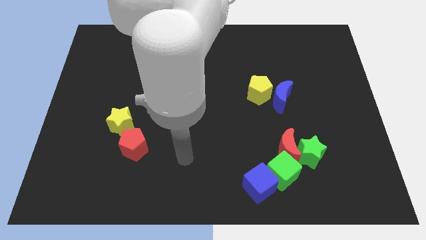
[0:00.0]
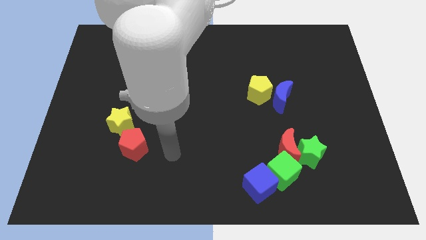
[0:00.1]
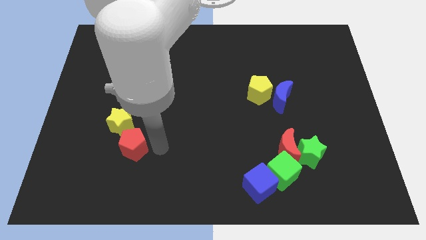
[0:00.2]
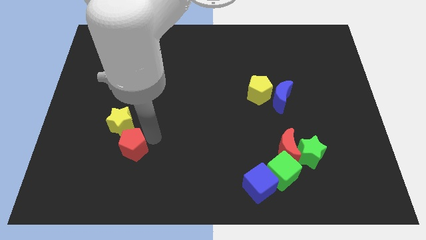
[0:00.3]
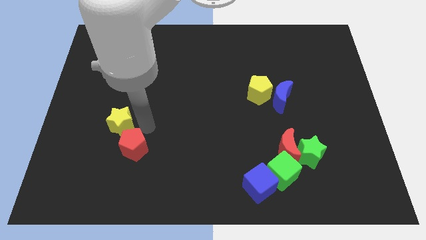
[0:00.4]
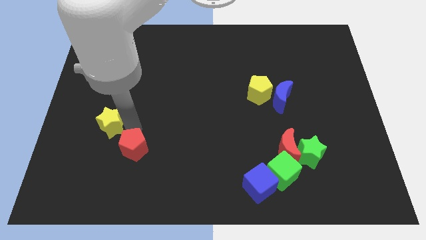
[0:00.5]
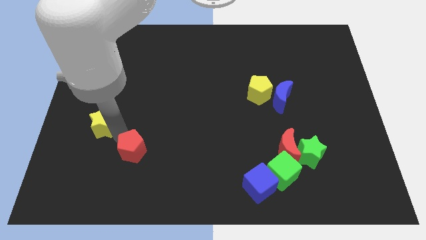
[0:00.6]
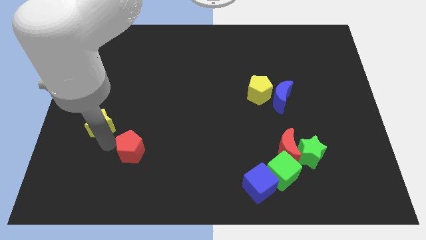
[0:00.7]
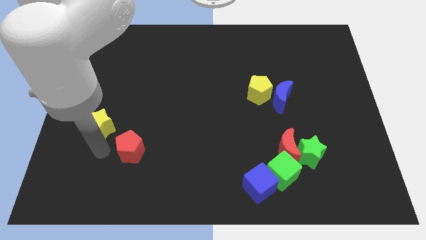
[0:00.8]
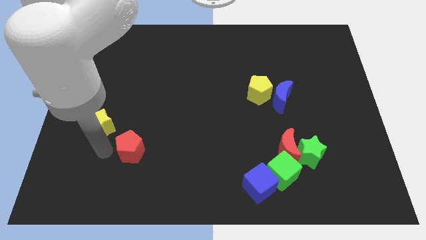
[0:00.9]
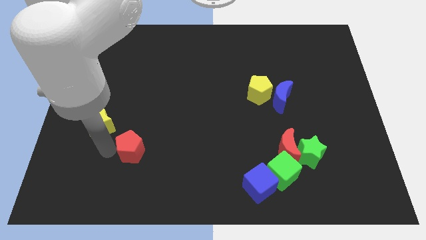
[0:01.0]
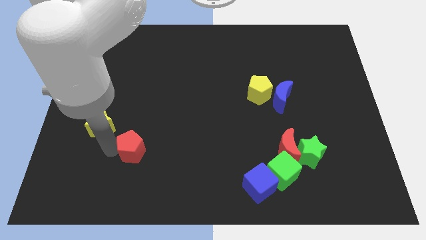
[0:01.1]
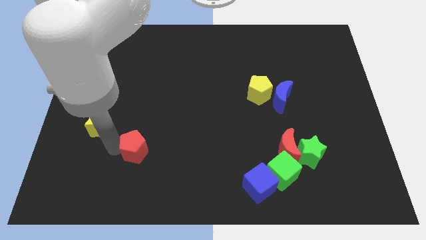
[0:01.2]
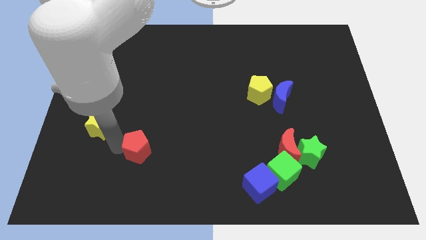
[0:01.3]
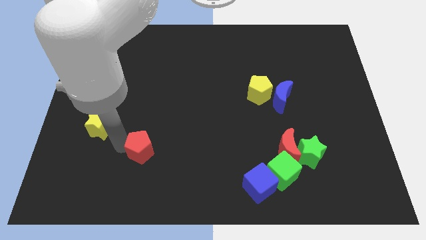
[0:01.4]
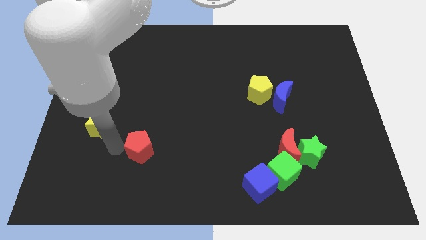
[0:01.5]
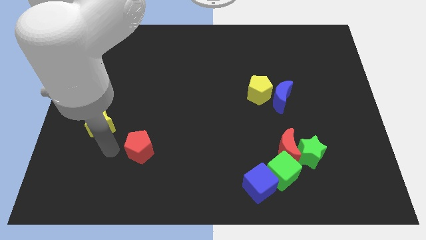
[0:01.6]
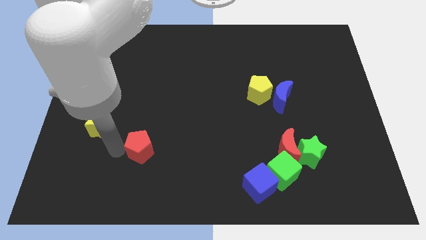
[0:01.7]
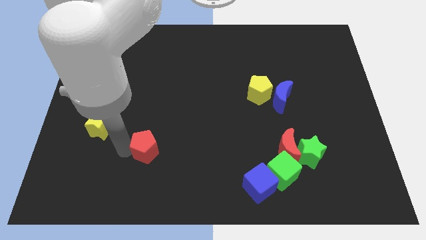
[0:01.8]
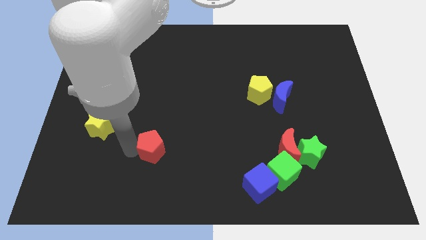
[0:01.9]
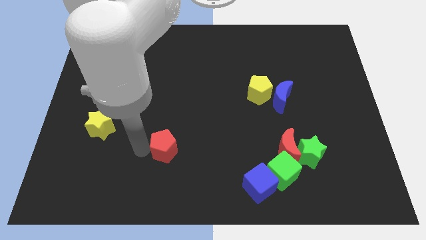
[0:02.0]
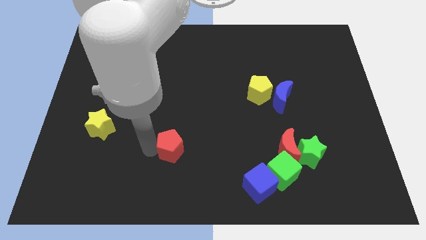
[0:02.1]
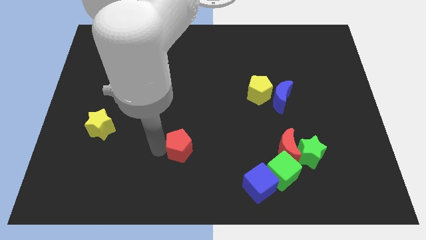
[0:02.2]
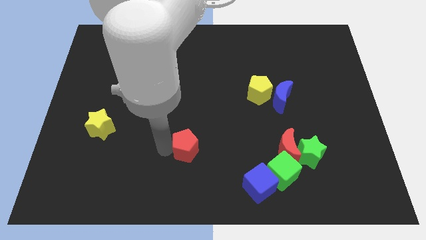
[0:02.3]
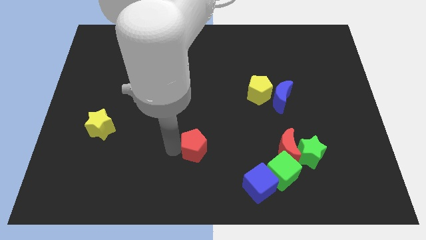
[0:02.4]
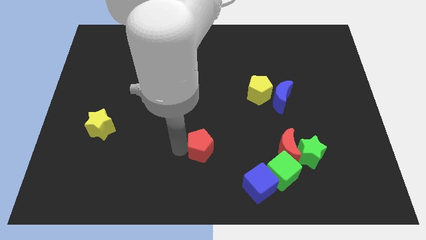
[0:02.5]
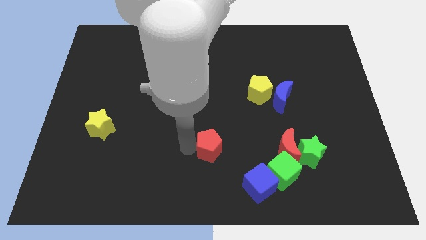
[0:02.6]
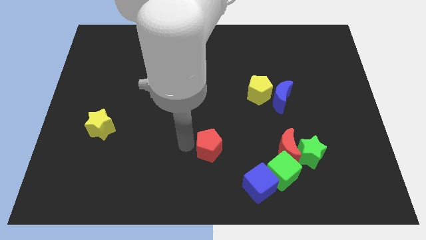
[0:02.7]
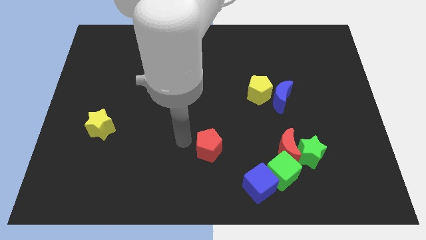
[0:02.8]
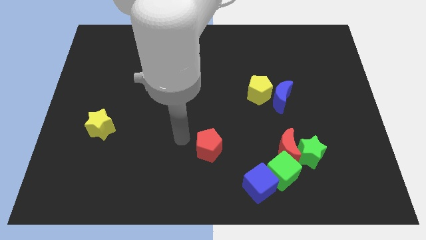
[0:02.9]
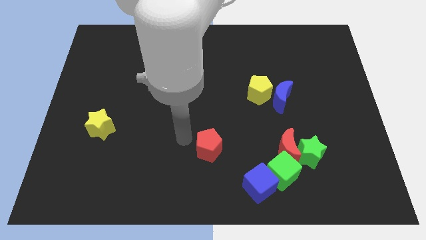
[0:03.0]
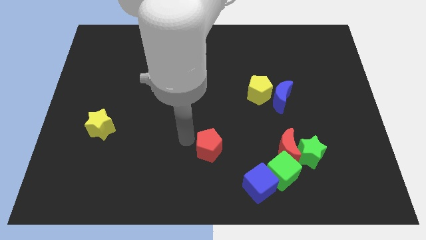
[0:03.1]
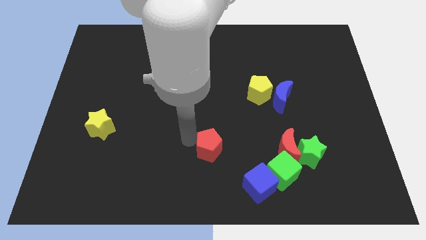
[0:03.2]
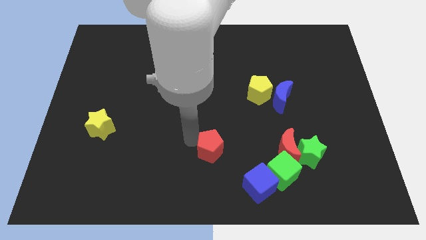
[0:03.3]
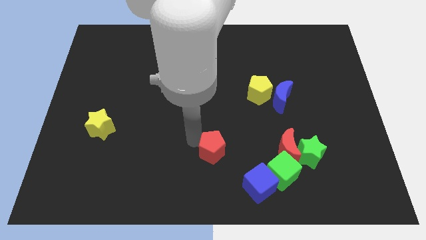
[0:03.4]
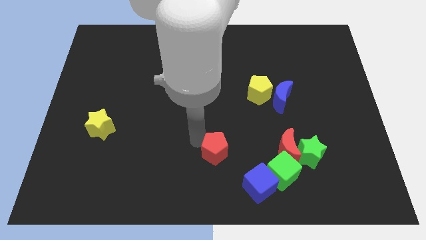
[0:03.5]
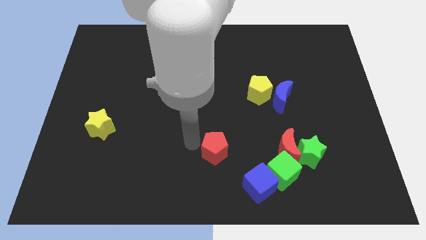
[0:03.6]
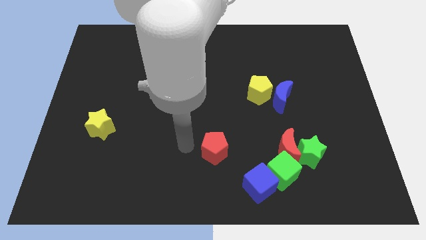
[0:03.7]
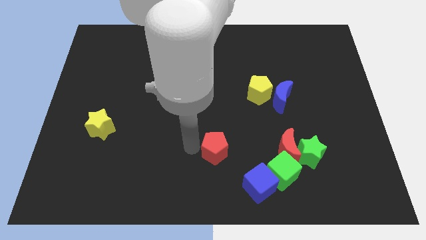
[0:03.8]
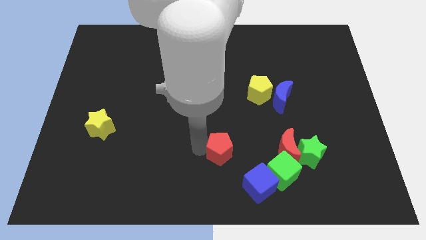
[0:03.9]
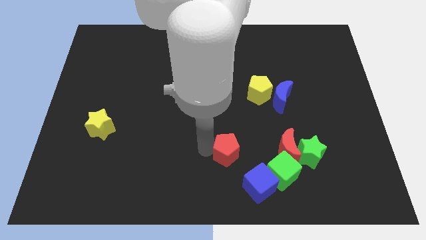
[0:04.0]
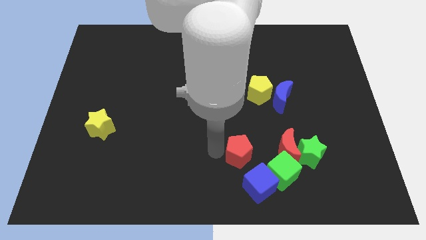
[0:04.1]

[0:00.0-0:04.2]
put the red pentagon to the left side of the green star

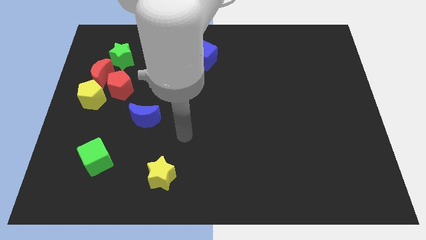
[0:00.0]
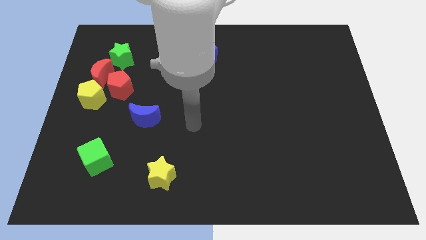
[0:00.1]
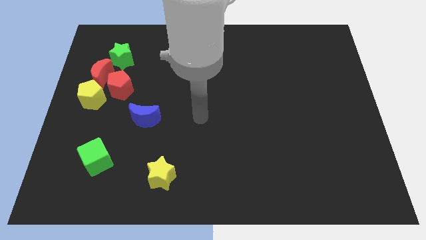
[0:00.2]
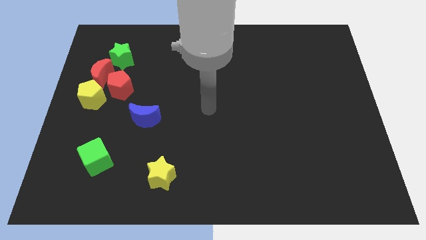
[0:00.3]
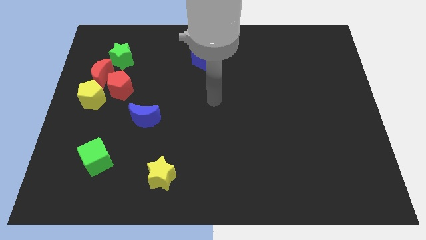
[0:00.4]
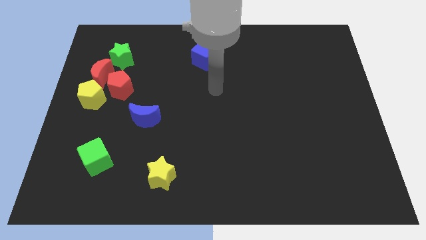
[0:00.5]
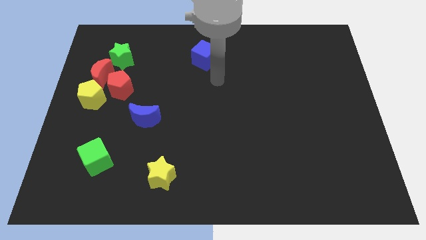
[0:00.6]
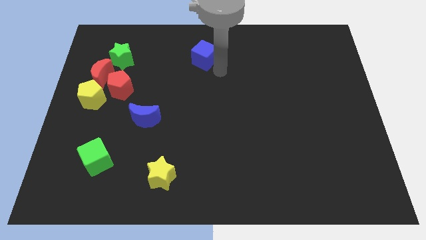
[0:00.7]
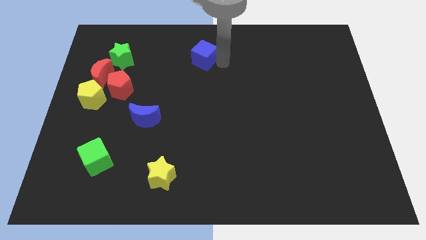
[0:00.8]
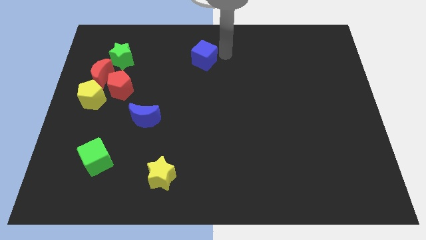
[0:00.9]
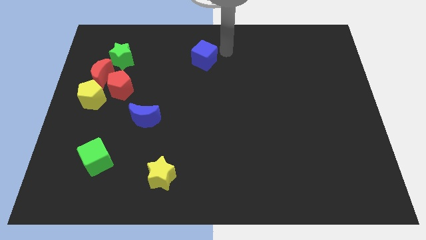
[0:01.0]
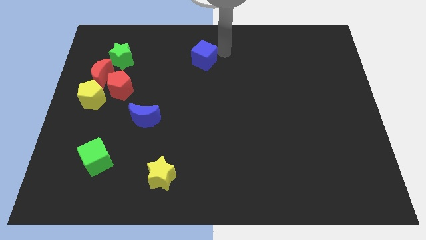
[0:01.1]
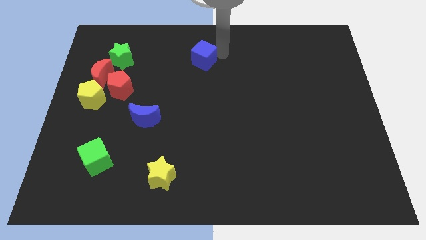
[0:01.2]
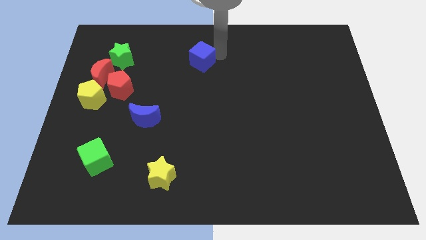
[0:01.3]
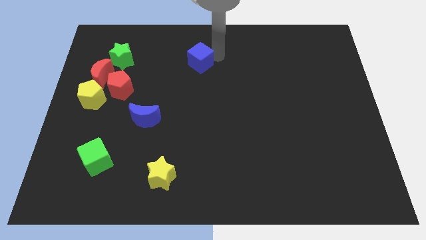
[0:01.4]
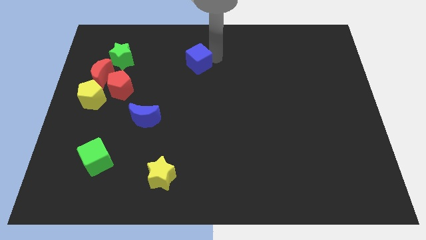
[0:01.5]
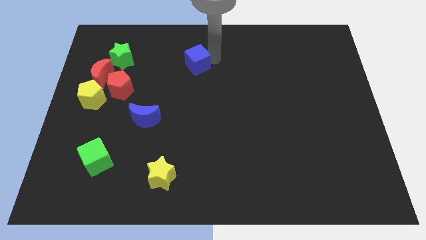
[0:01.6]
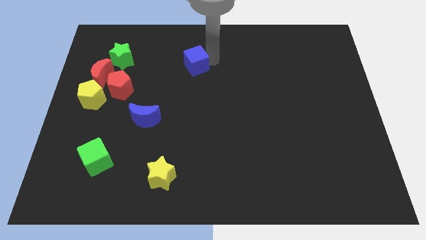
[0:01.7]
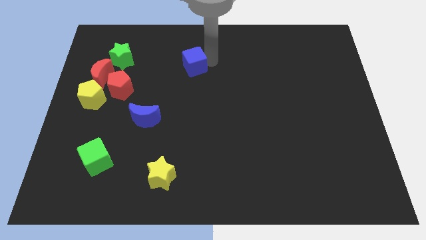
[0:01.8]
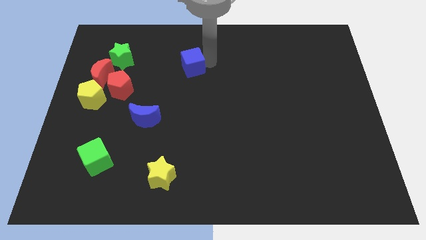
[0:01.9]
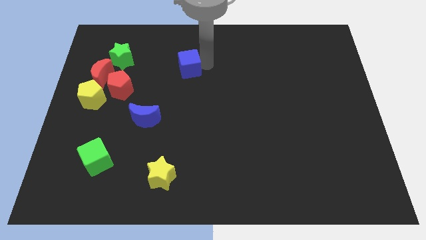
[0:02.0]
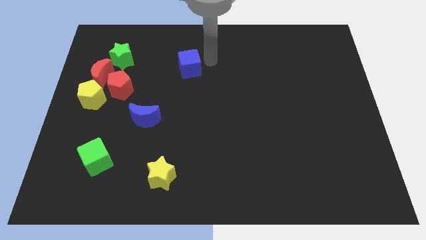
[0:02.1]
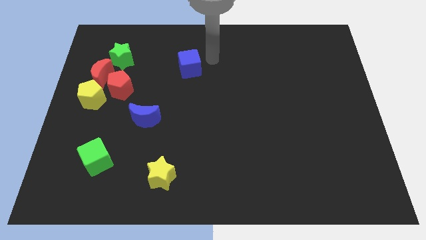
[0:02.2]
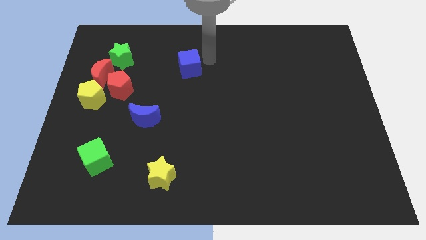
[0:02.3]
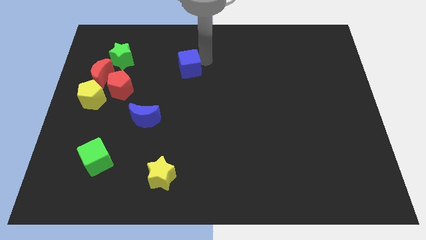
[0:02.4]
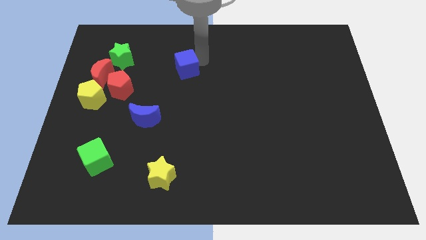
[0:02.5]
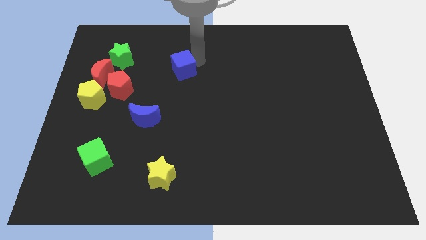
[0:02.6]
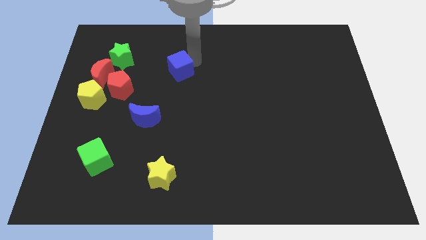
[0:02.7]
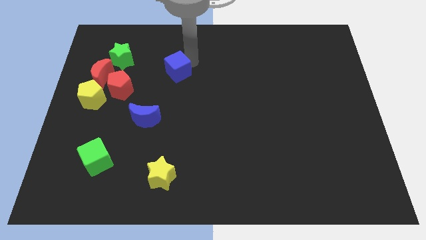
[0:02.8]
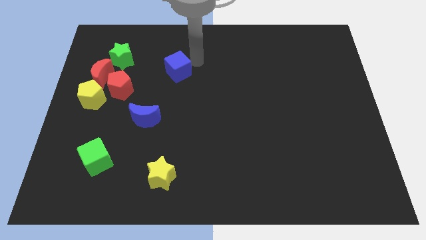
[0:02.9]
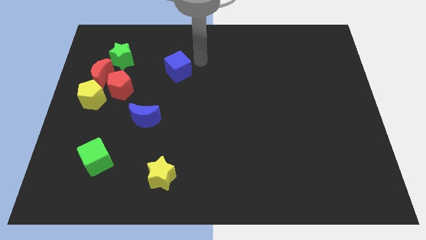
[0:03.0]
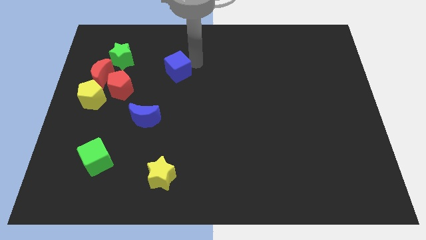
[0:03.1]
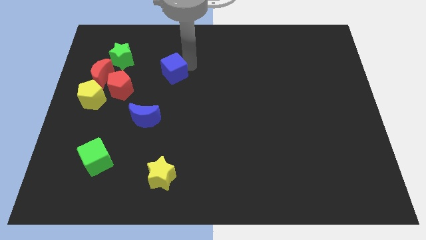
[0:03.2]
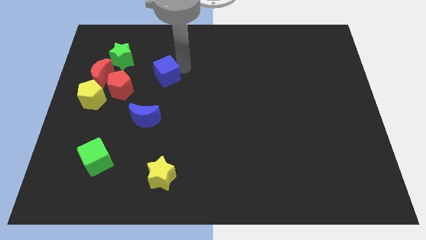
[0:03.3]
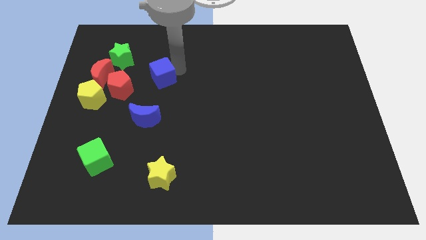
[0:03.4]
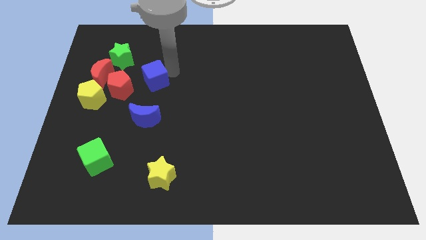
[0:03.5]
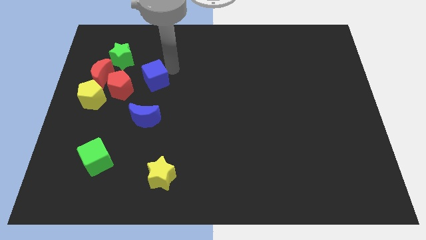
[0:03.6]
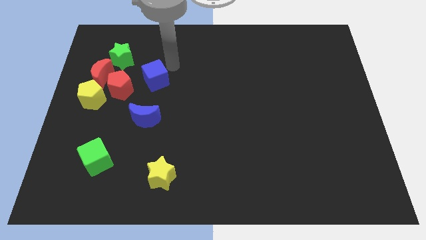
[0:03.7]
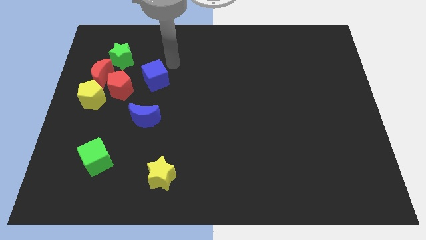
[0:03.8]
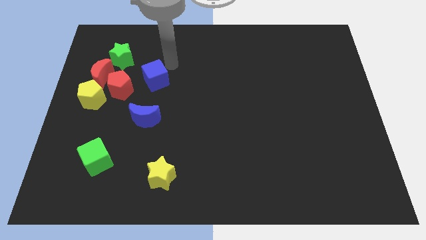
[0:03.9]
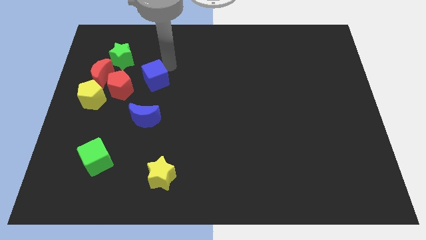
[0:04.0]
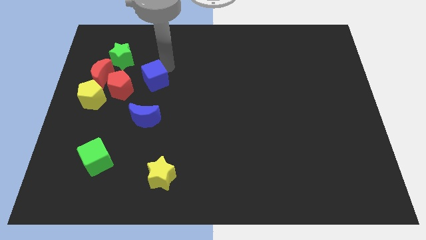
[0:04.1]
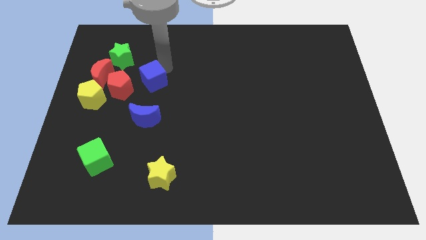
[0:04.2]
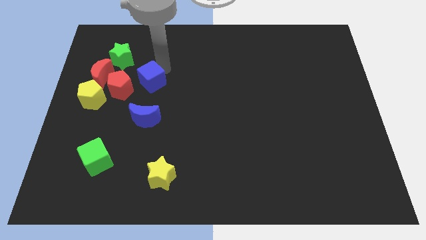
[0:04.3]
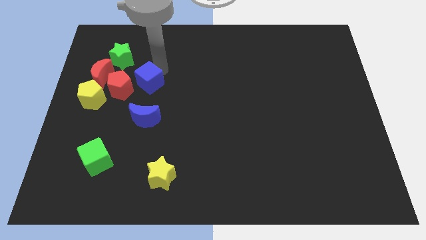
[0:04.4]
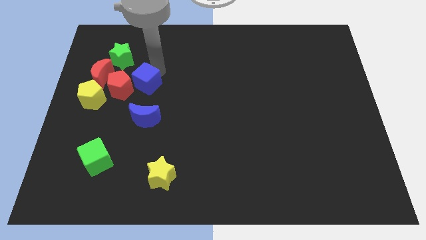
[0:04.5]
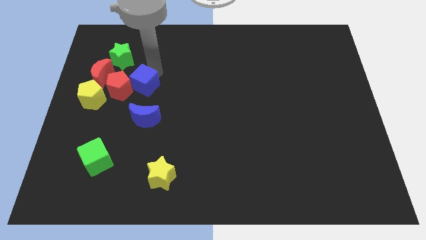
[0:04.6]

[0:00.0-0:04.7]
push the blue cube just right of the yellow pentagon
